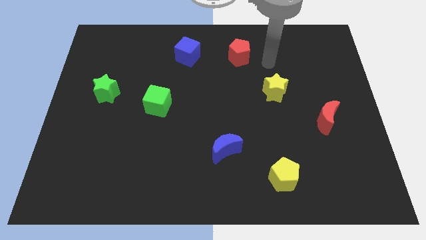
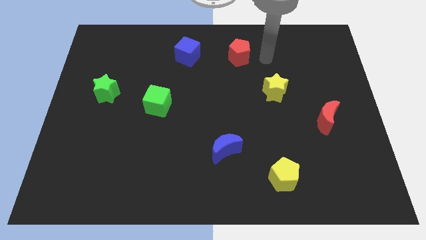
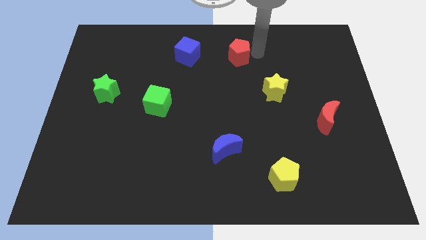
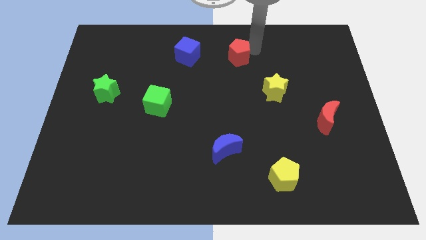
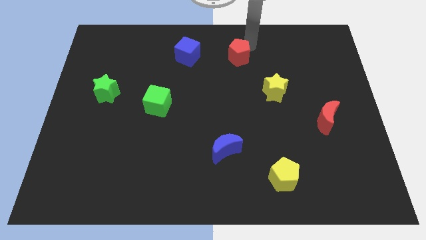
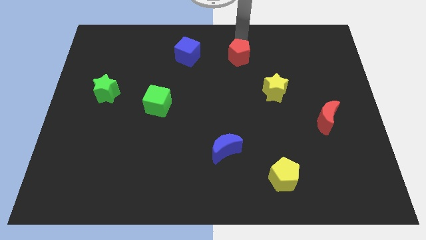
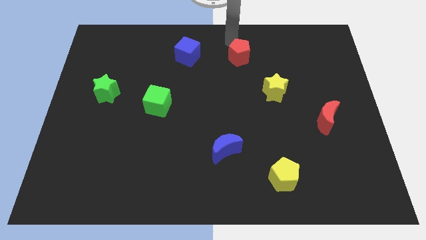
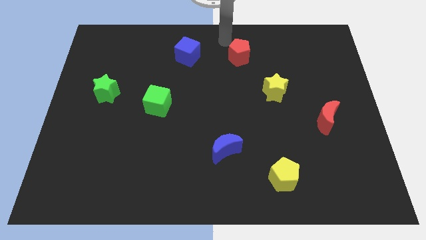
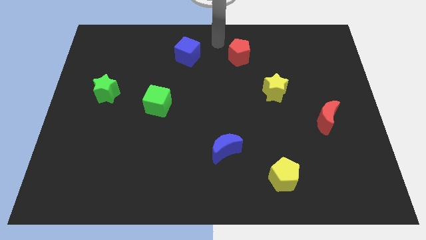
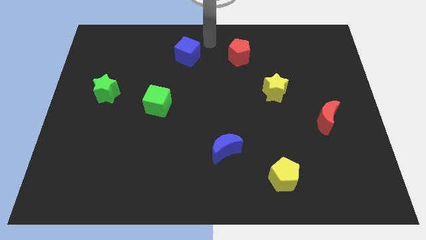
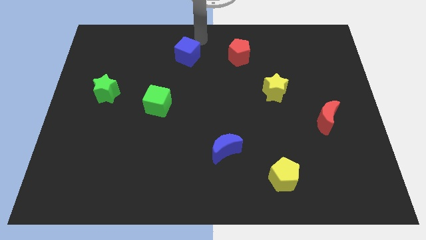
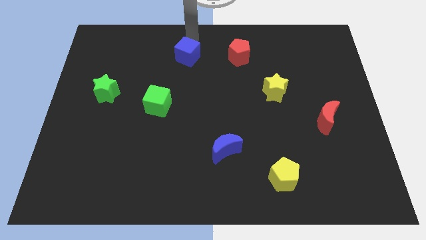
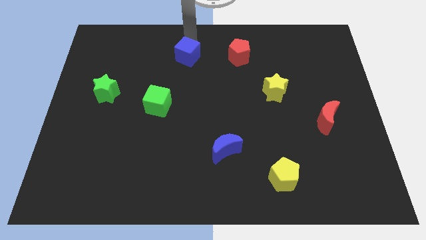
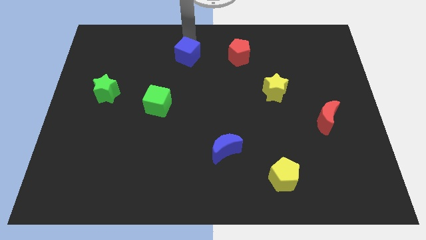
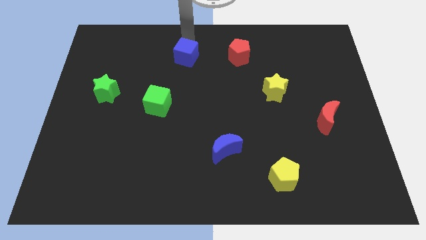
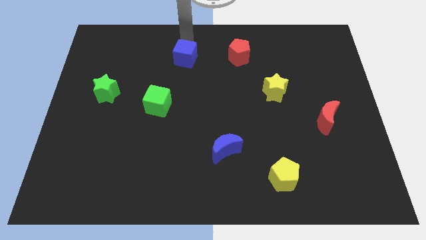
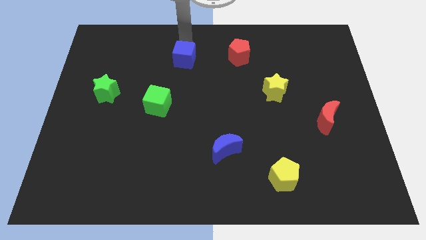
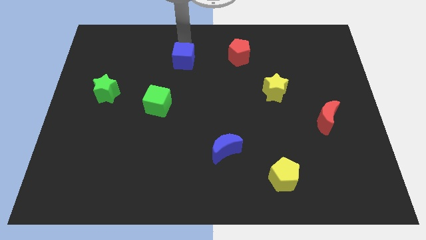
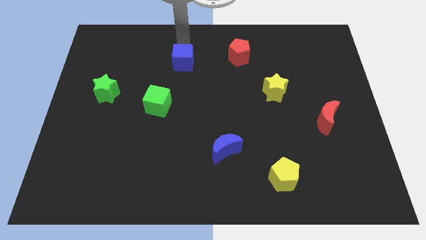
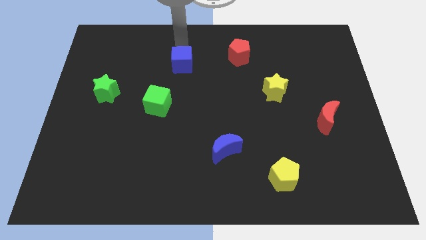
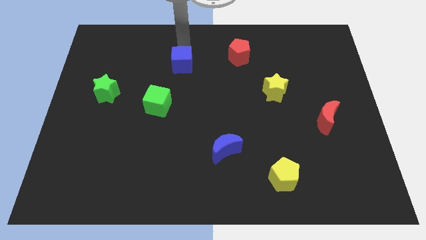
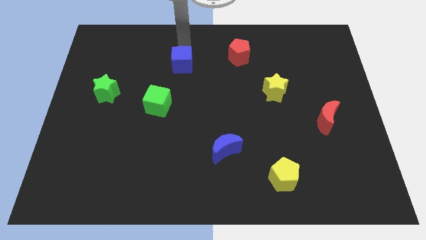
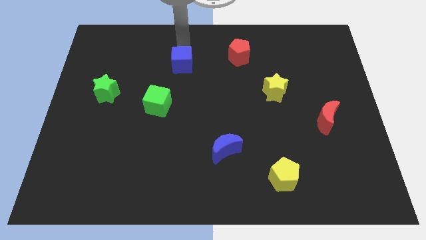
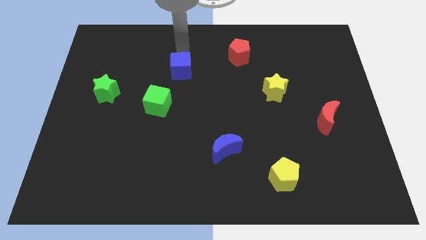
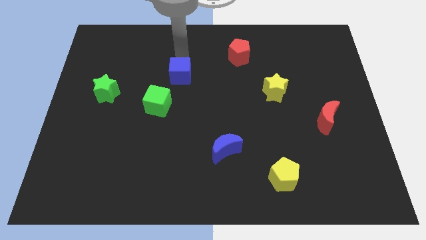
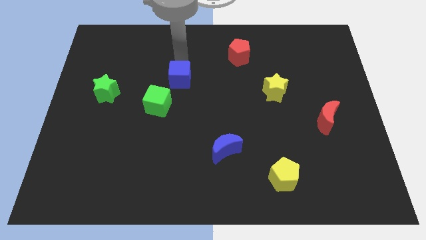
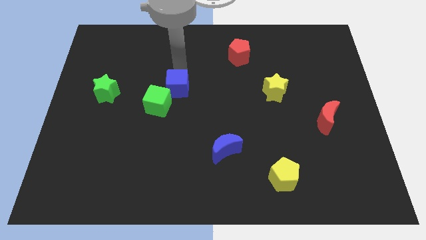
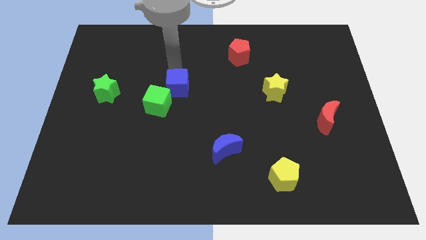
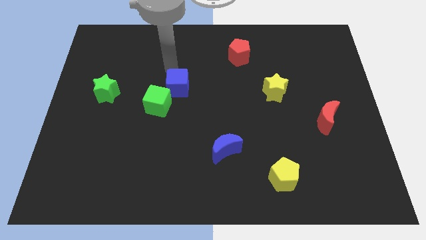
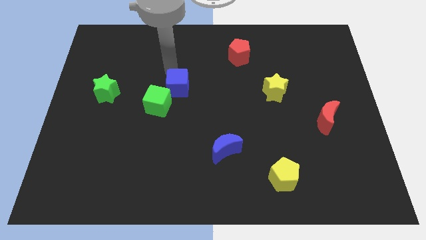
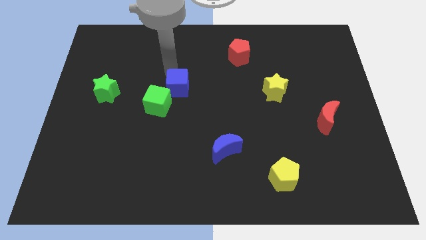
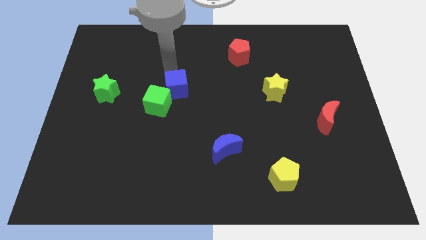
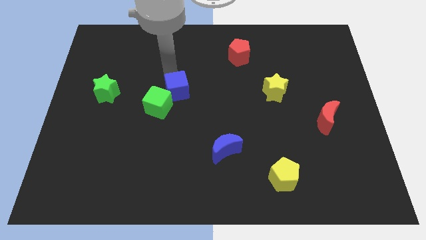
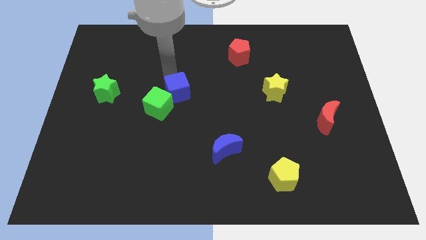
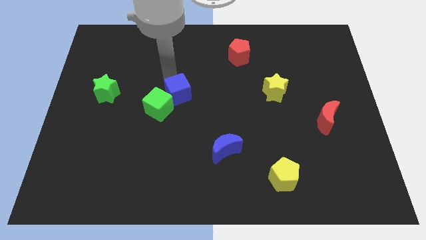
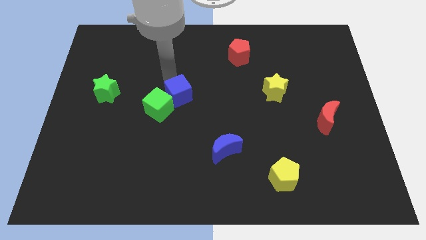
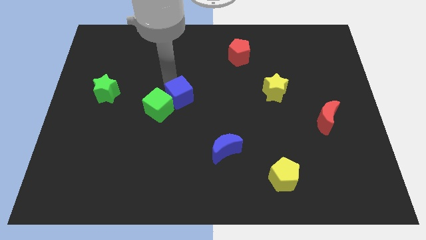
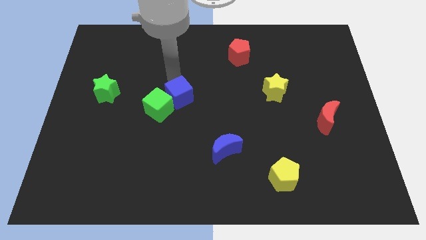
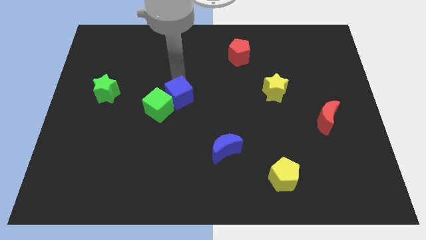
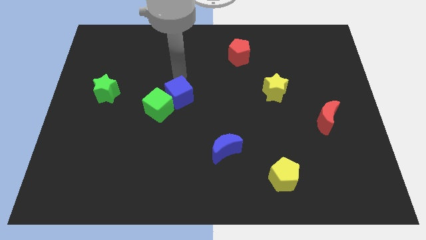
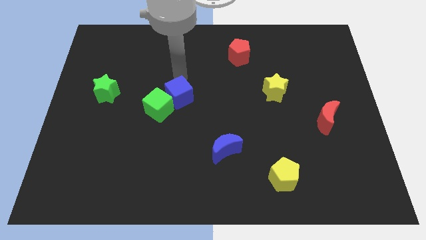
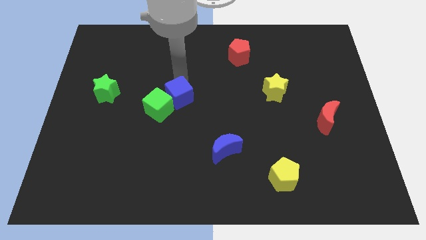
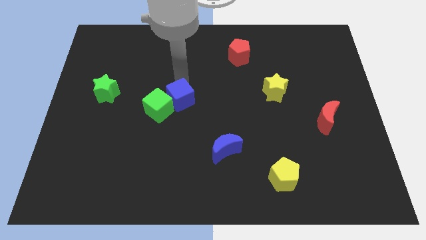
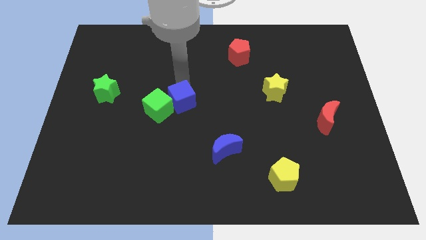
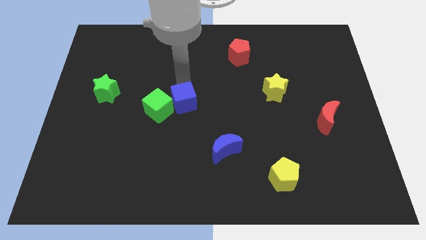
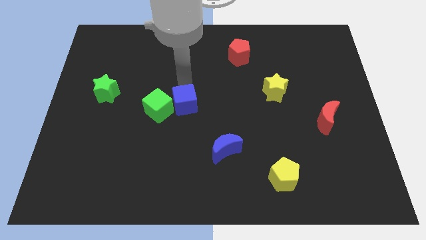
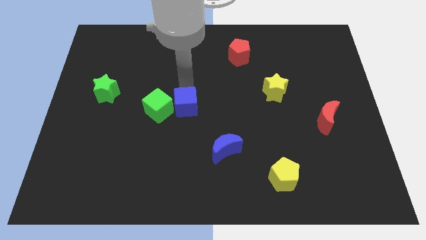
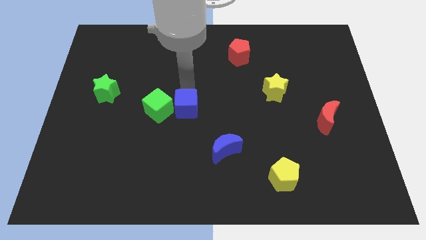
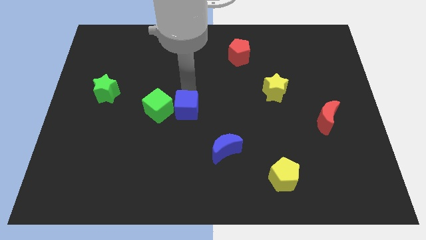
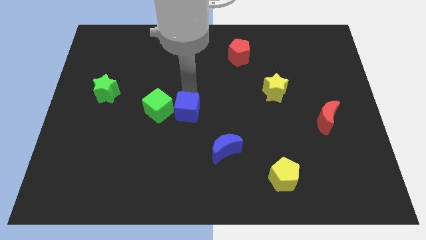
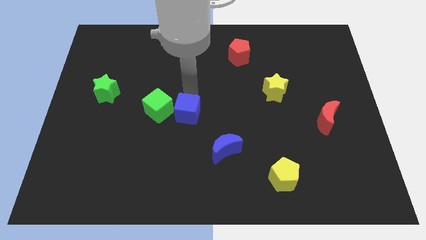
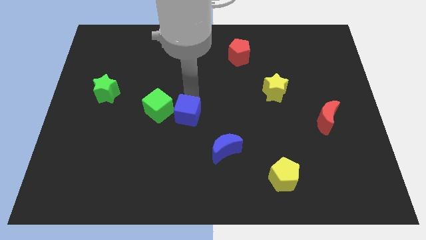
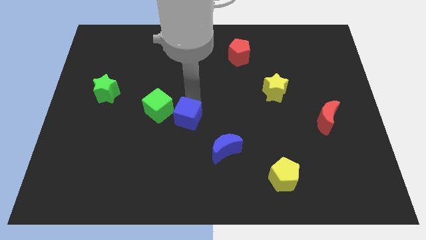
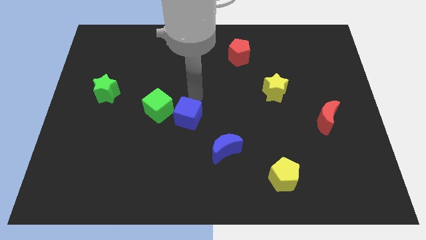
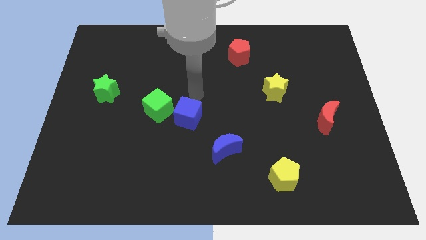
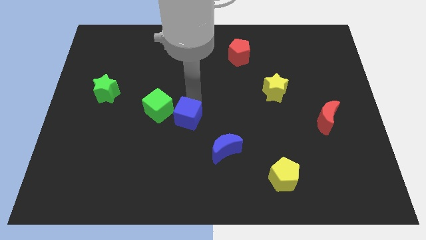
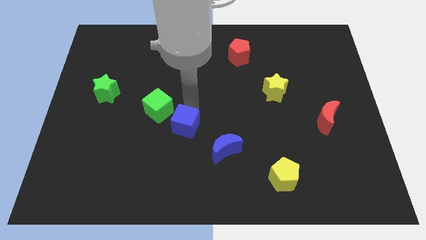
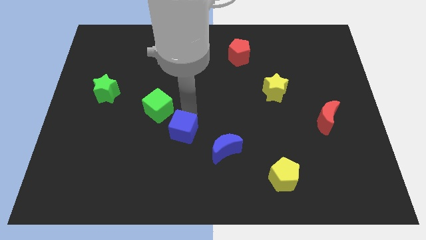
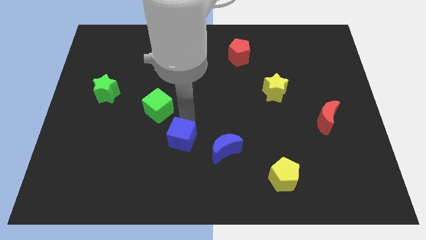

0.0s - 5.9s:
push the blue cube just left of the blue moon

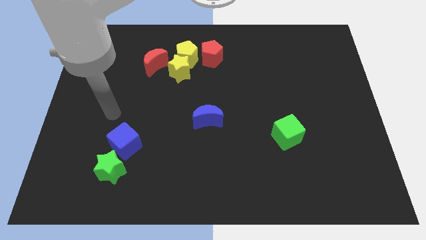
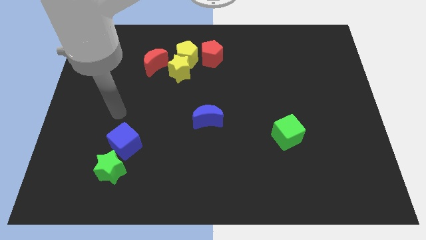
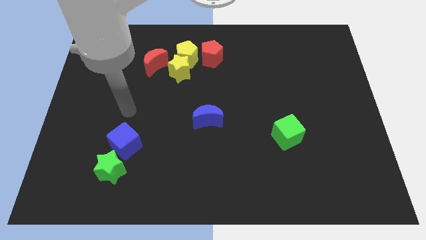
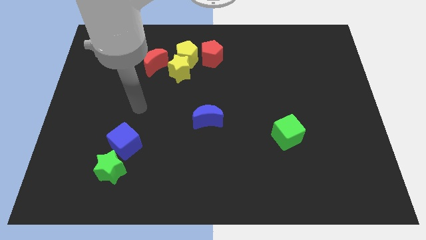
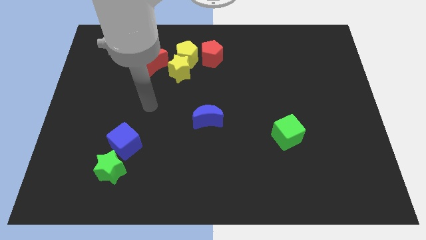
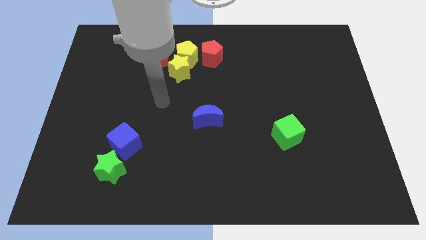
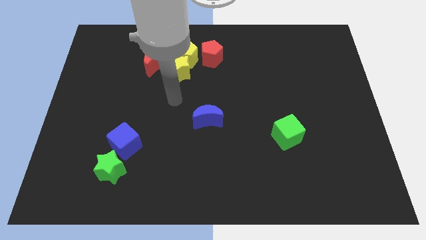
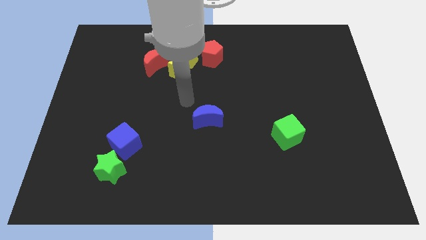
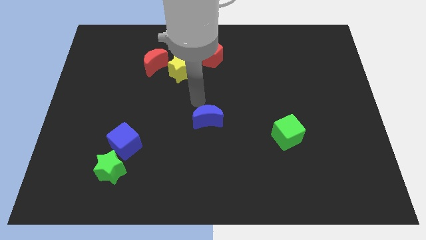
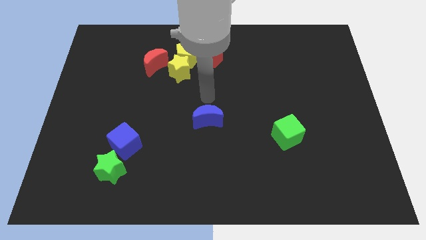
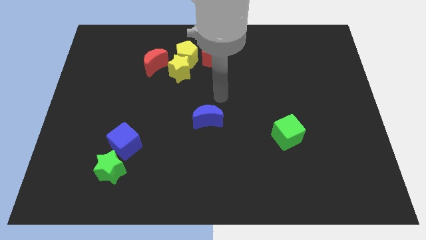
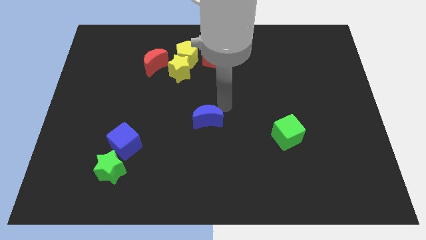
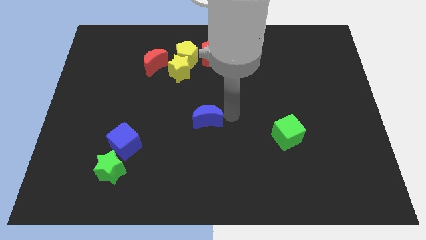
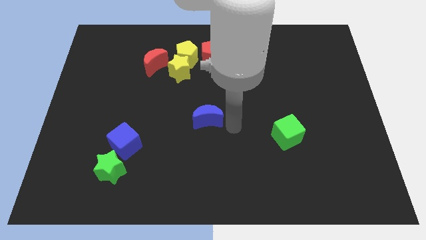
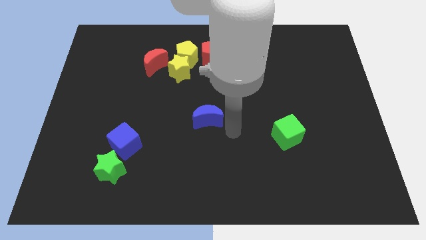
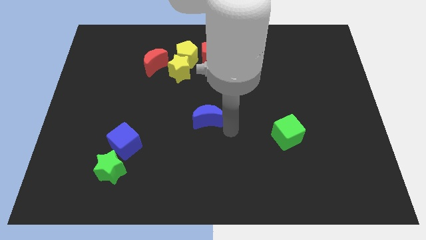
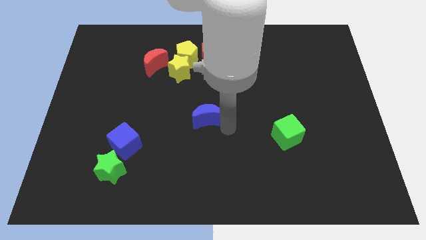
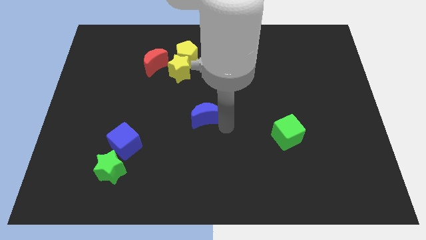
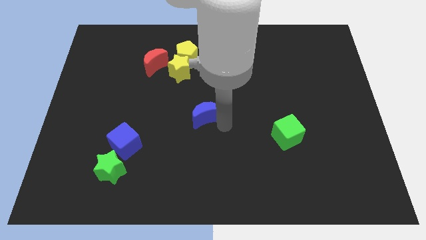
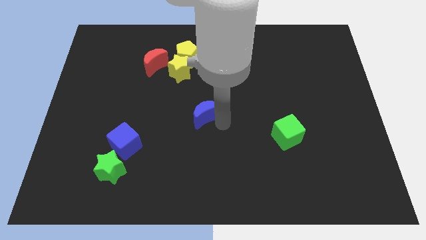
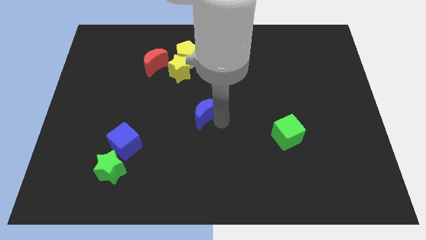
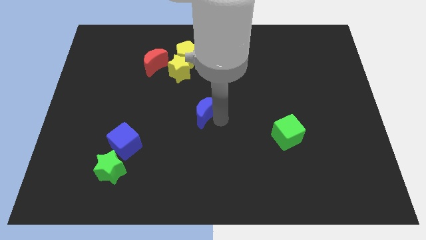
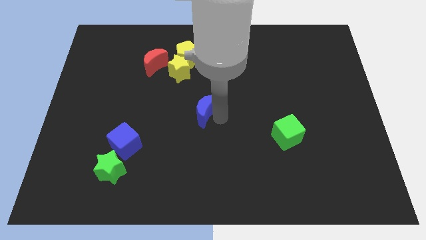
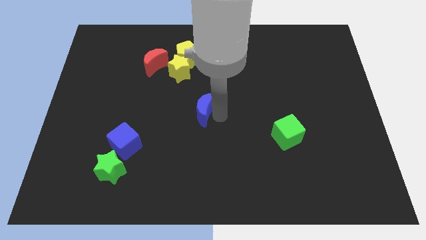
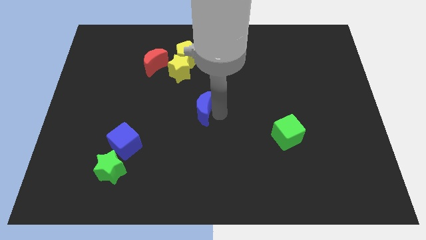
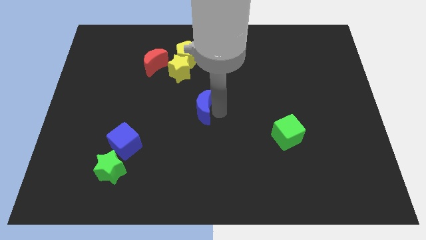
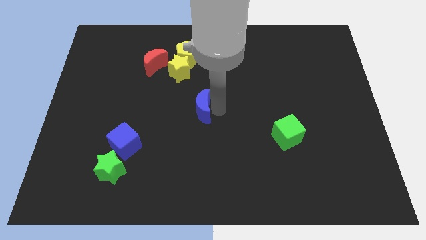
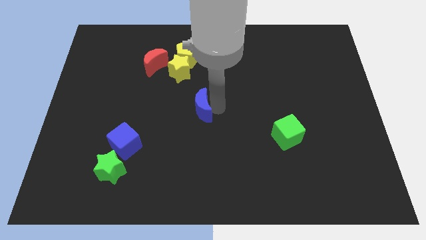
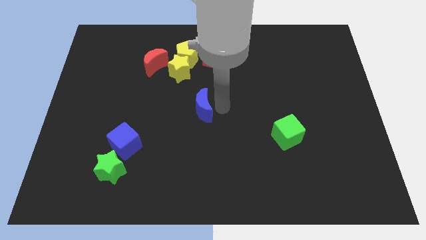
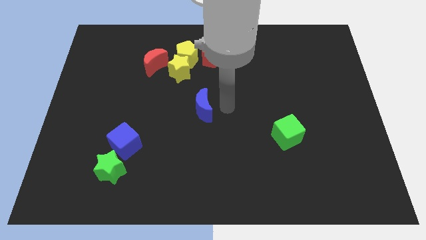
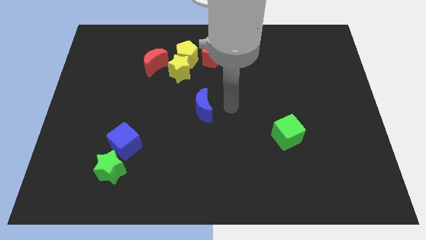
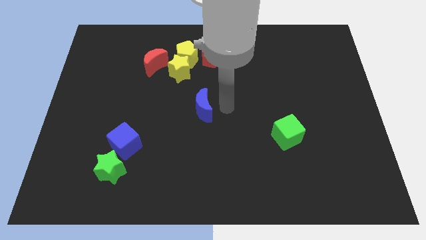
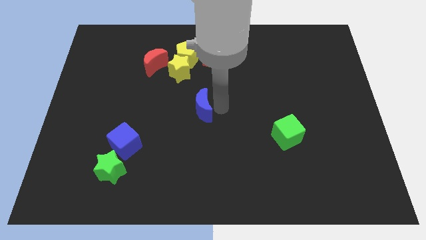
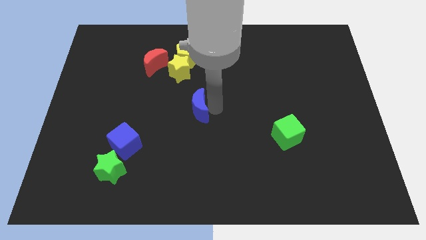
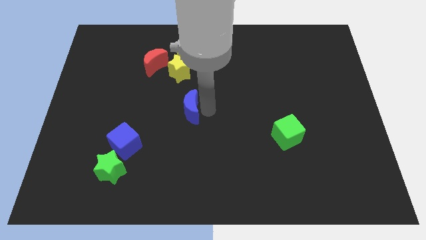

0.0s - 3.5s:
move the blue moon below the yellow star
